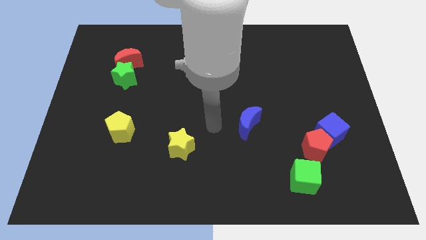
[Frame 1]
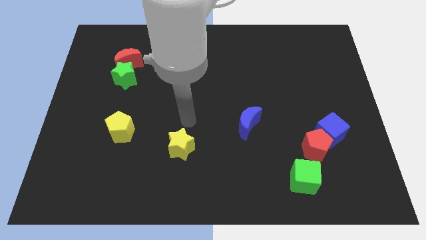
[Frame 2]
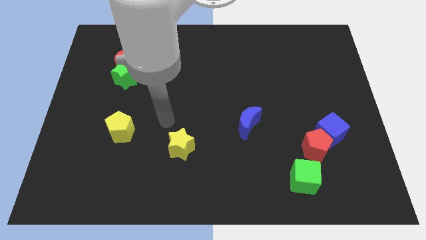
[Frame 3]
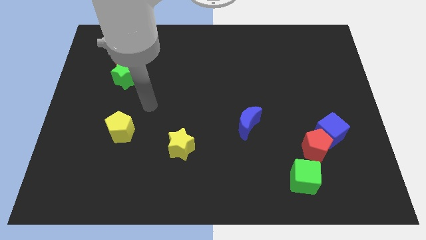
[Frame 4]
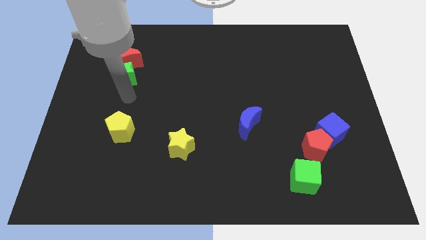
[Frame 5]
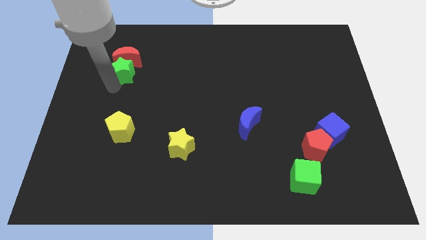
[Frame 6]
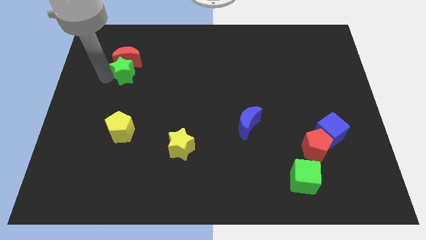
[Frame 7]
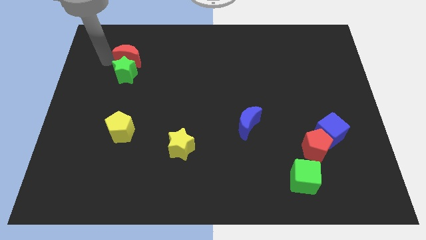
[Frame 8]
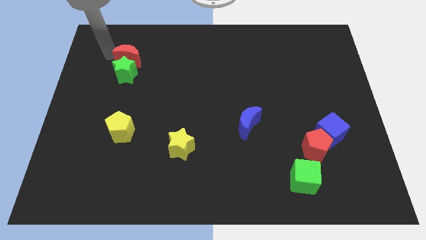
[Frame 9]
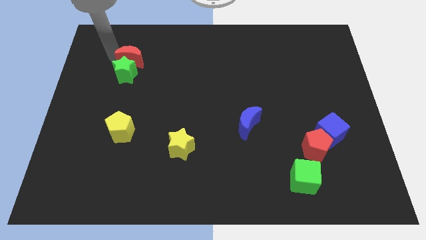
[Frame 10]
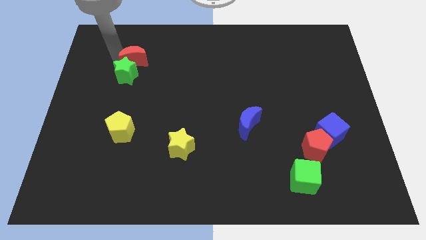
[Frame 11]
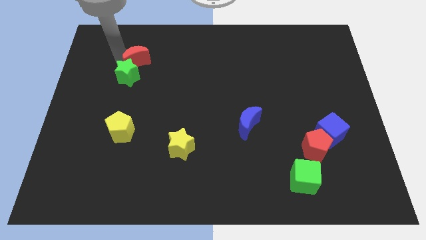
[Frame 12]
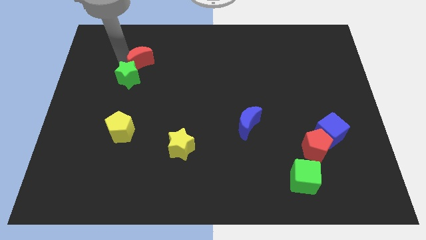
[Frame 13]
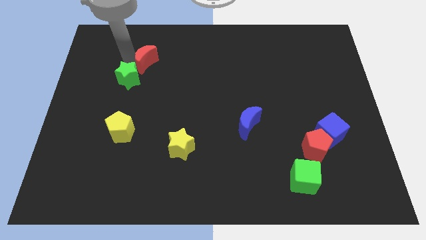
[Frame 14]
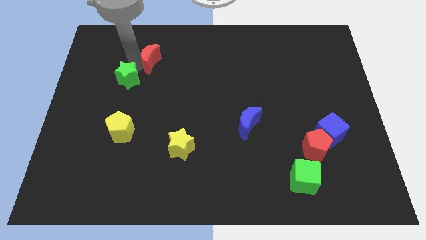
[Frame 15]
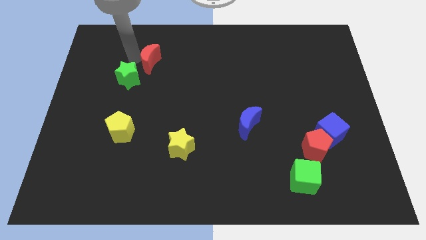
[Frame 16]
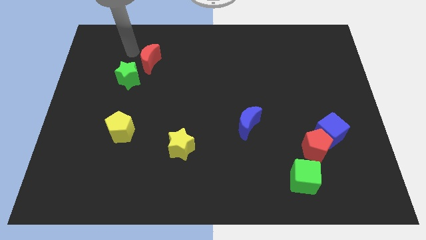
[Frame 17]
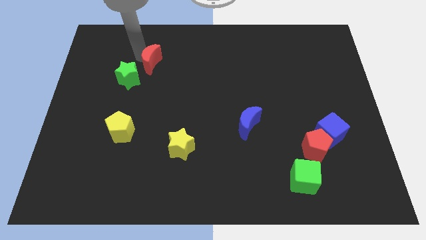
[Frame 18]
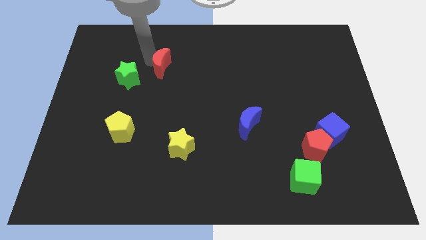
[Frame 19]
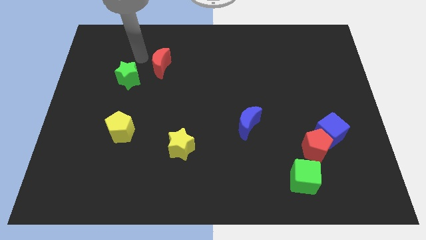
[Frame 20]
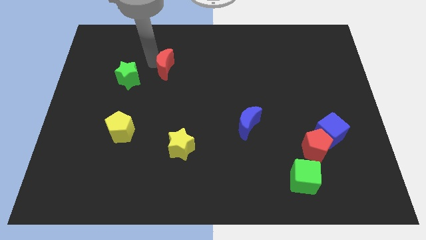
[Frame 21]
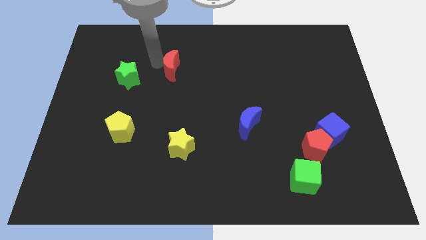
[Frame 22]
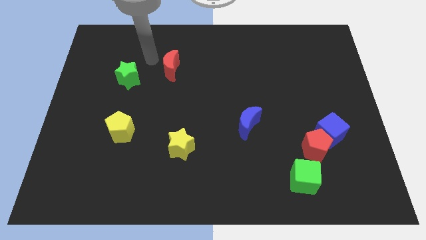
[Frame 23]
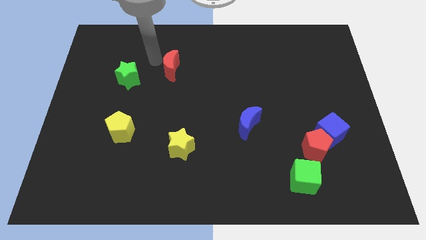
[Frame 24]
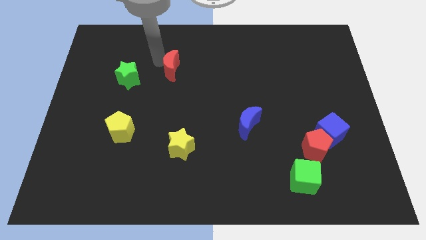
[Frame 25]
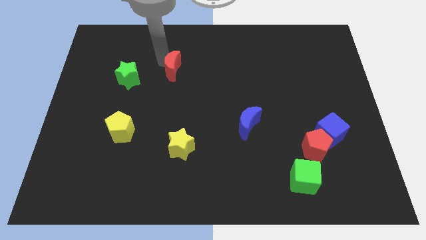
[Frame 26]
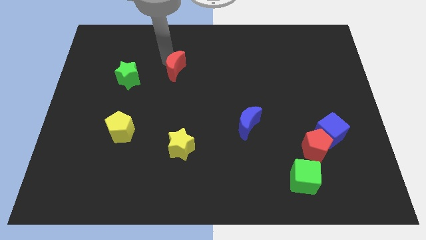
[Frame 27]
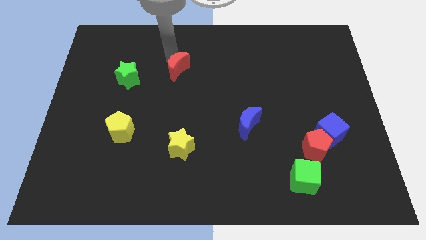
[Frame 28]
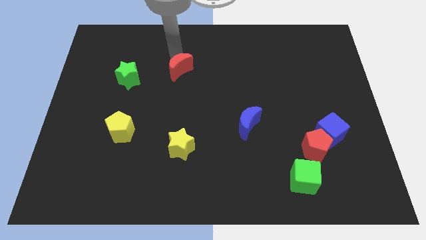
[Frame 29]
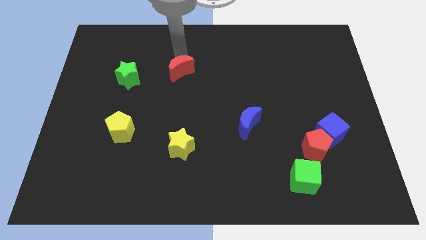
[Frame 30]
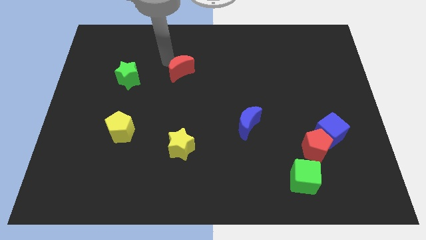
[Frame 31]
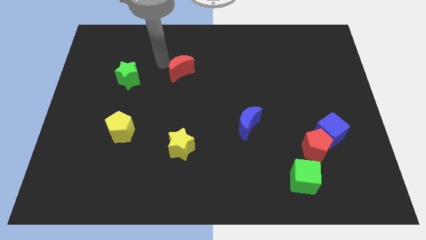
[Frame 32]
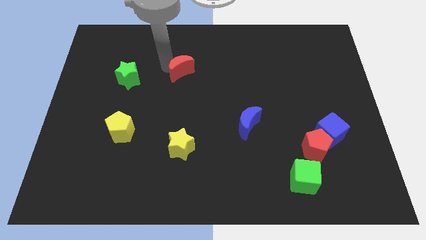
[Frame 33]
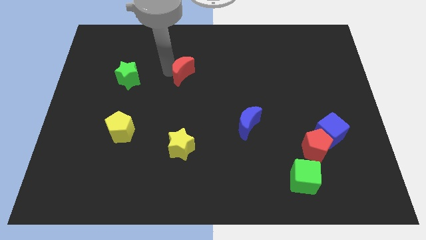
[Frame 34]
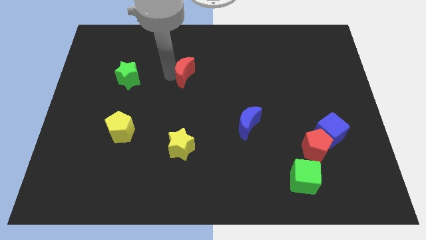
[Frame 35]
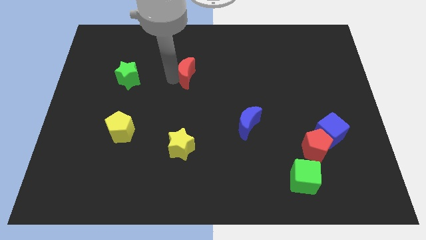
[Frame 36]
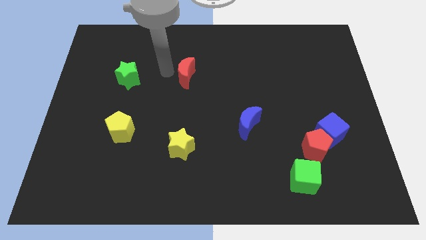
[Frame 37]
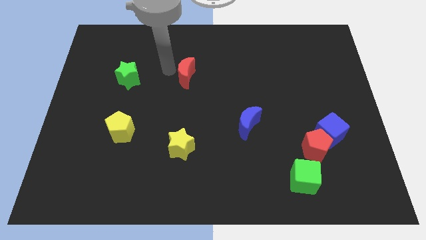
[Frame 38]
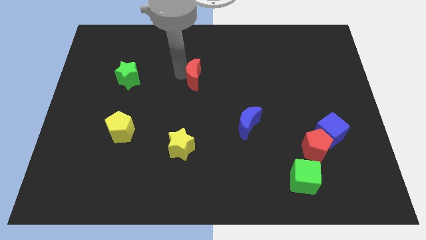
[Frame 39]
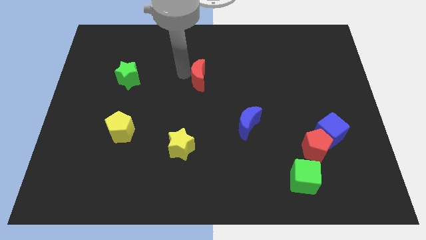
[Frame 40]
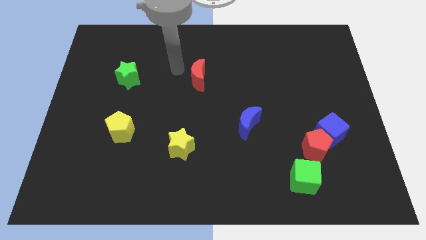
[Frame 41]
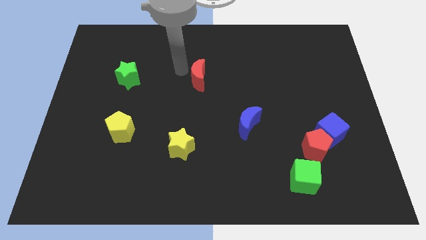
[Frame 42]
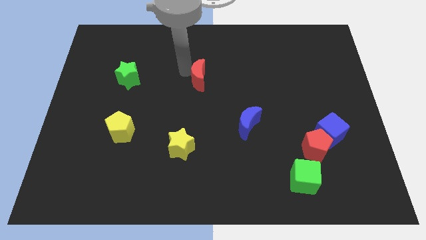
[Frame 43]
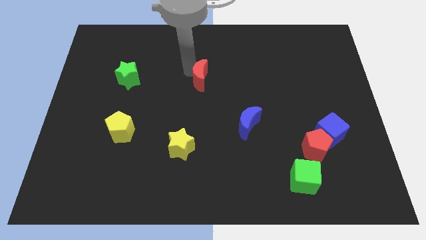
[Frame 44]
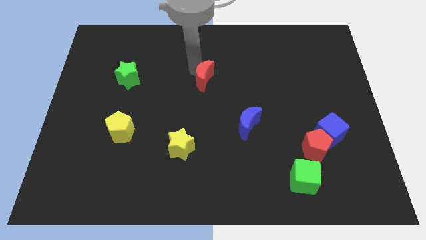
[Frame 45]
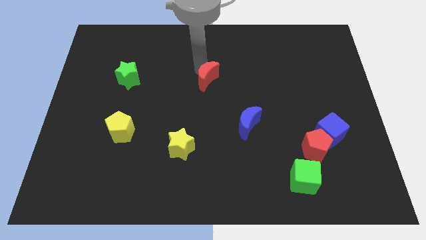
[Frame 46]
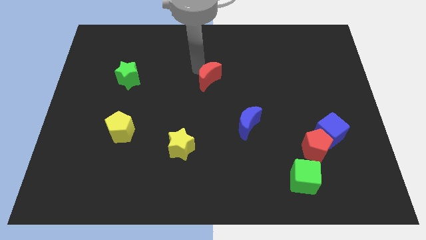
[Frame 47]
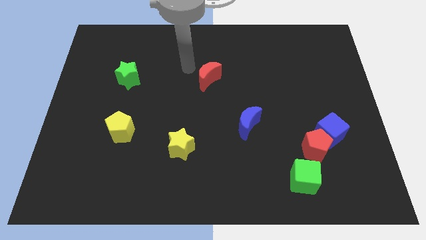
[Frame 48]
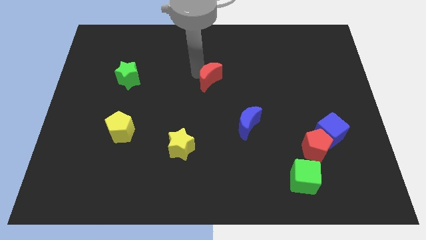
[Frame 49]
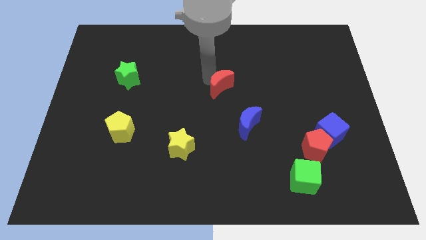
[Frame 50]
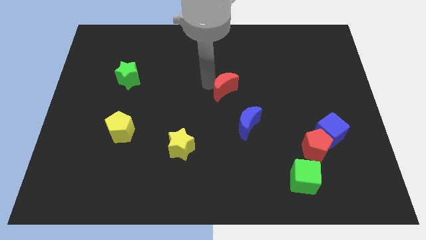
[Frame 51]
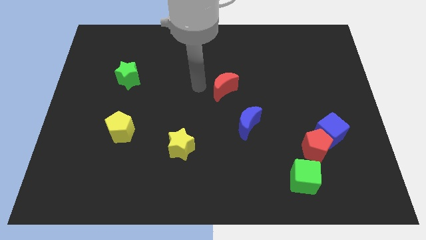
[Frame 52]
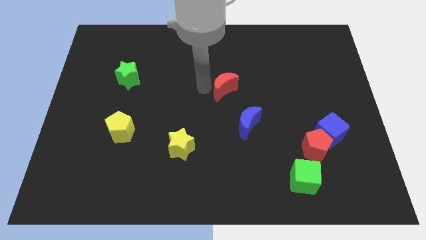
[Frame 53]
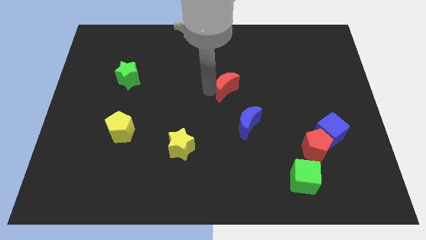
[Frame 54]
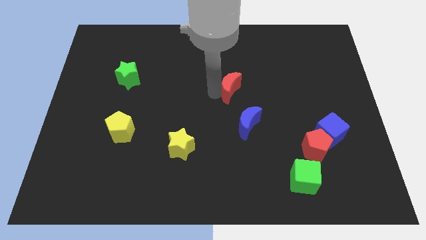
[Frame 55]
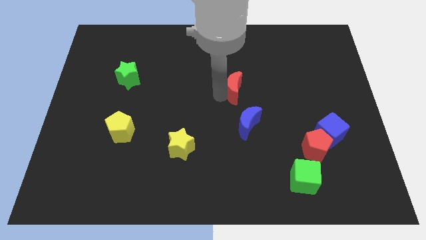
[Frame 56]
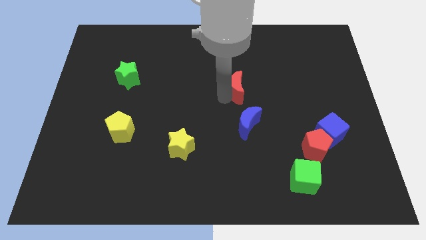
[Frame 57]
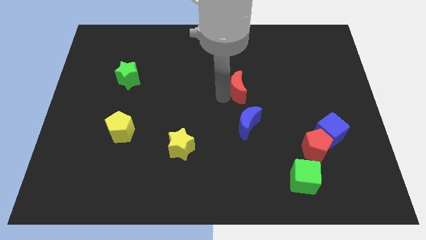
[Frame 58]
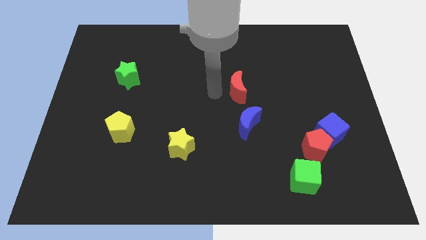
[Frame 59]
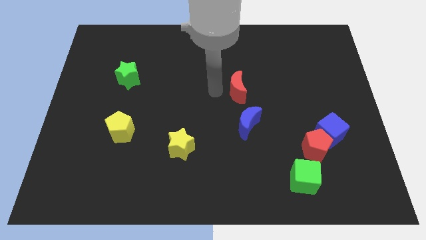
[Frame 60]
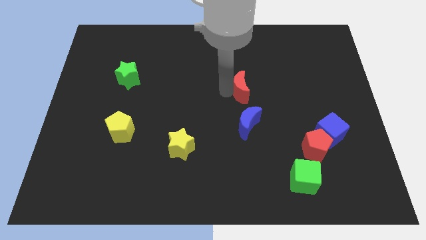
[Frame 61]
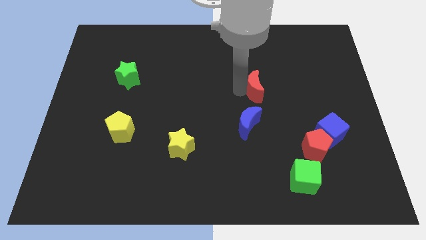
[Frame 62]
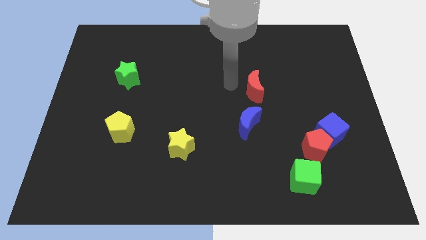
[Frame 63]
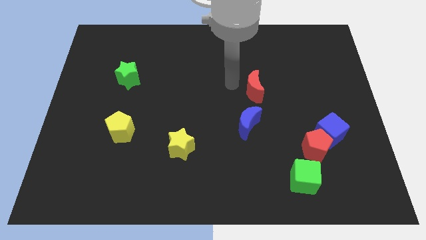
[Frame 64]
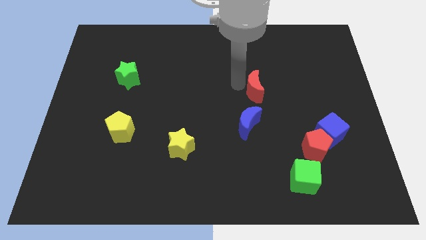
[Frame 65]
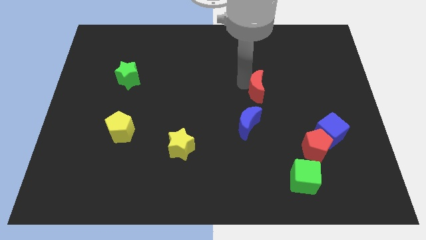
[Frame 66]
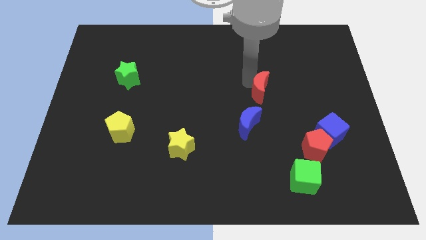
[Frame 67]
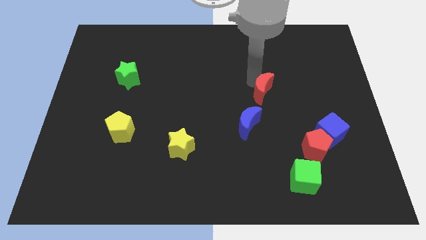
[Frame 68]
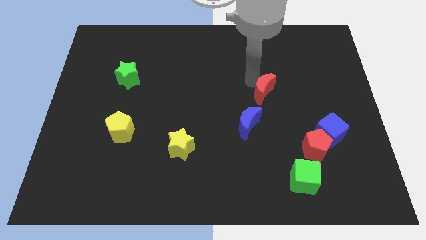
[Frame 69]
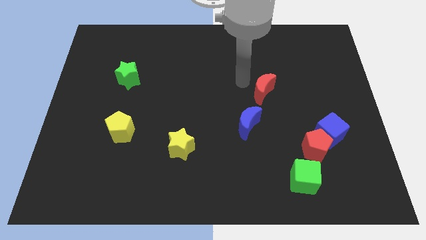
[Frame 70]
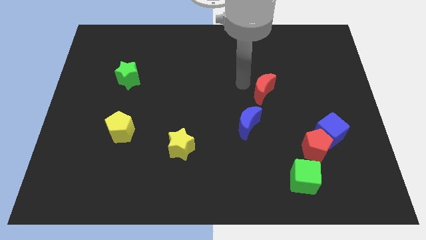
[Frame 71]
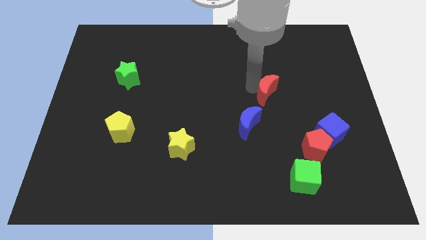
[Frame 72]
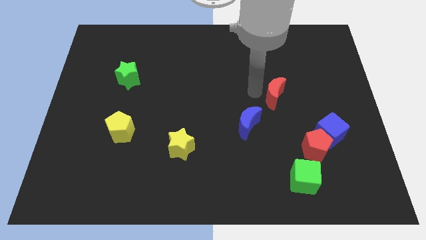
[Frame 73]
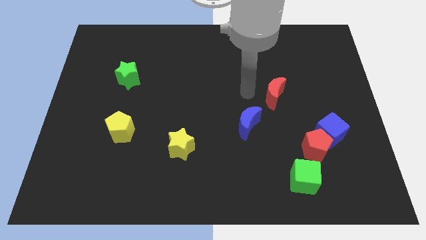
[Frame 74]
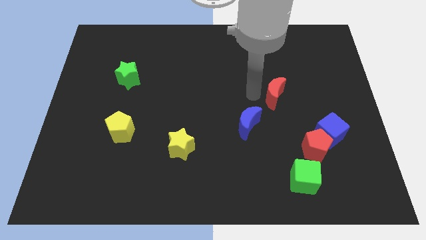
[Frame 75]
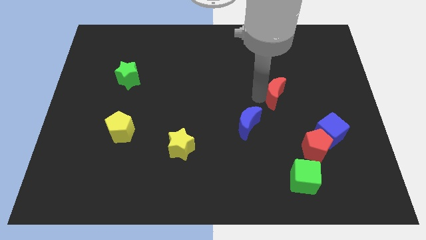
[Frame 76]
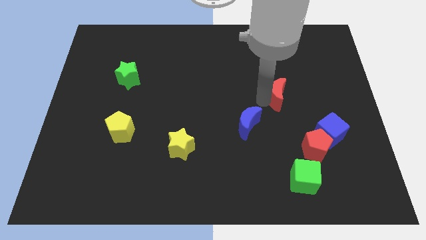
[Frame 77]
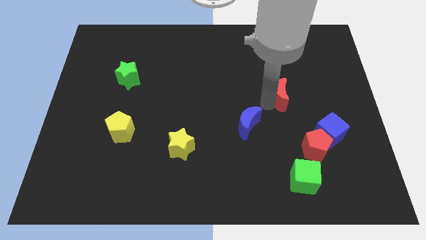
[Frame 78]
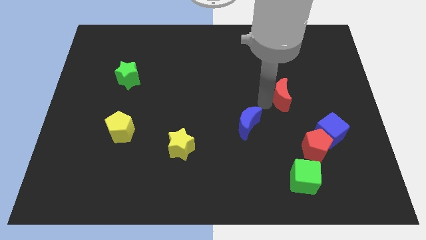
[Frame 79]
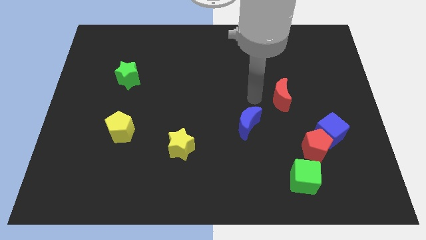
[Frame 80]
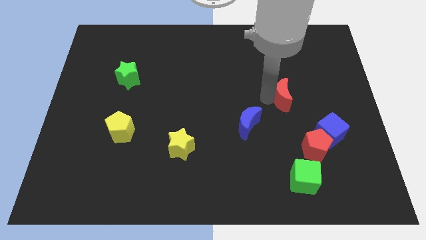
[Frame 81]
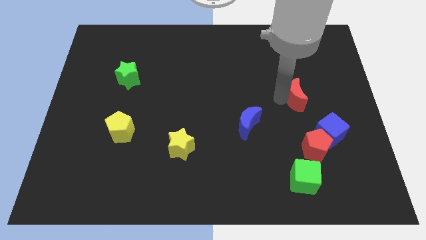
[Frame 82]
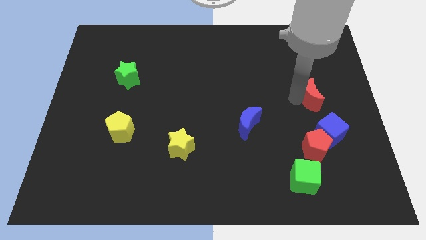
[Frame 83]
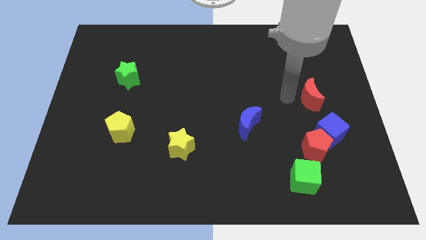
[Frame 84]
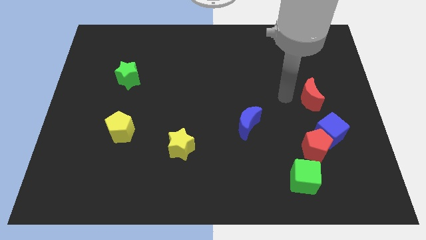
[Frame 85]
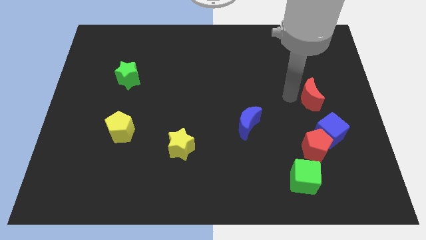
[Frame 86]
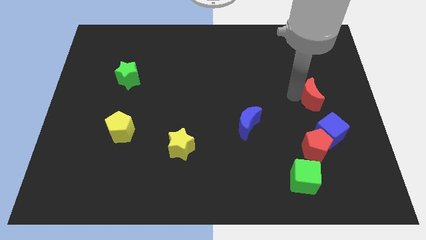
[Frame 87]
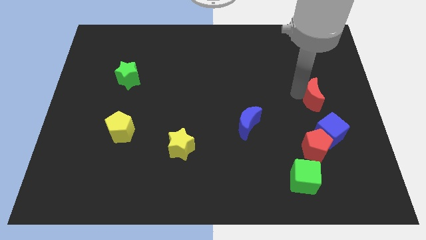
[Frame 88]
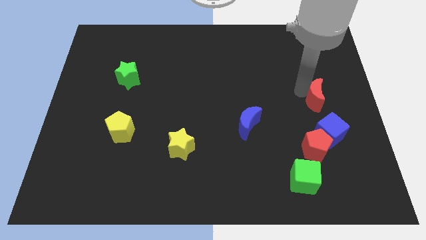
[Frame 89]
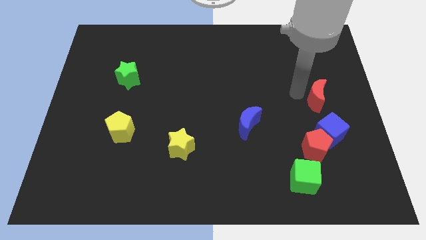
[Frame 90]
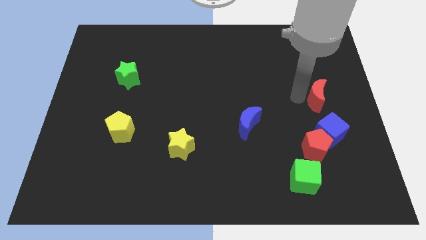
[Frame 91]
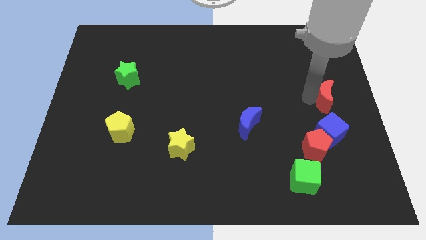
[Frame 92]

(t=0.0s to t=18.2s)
move the red moon to the right side of the board
